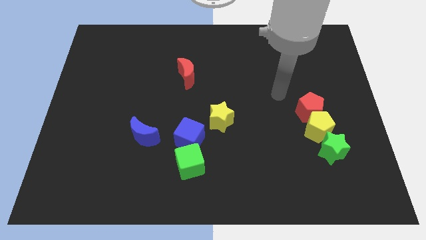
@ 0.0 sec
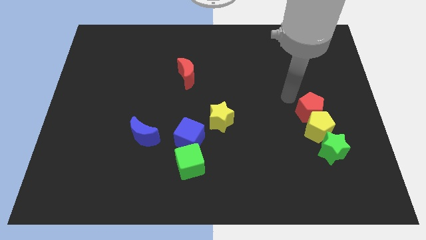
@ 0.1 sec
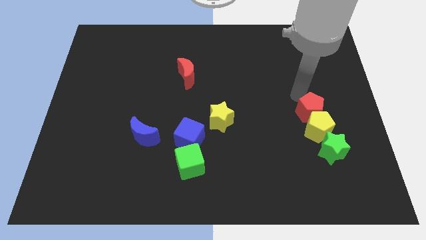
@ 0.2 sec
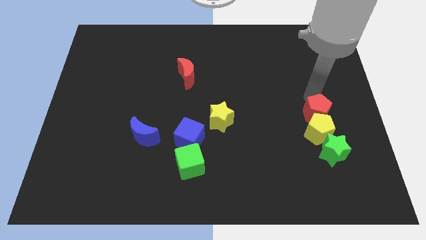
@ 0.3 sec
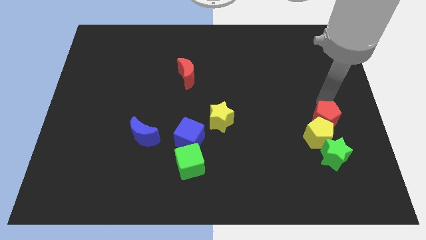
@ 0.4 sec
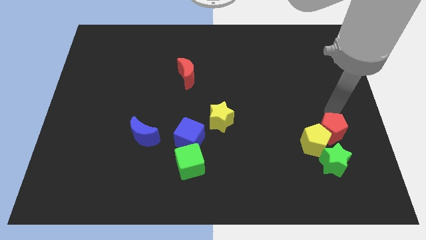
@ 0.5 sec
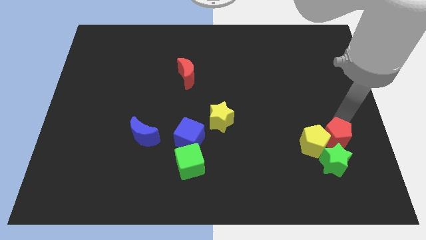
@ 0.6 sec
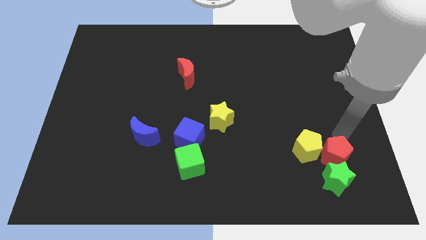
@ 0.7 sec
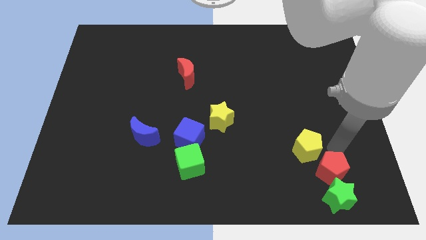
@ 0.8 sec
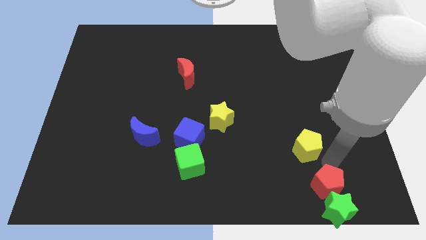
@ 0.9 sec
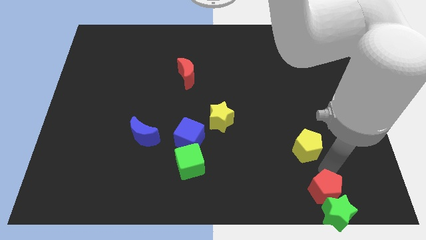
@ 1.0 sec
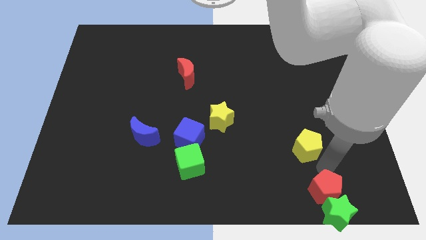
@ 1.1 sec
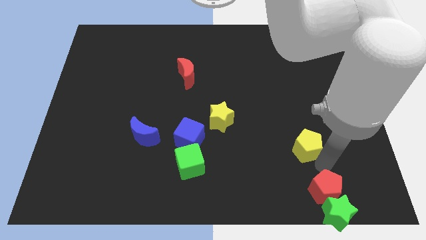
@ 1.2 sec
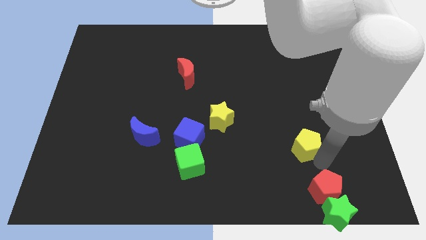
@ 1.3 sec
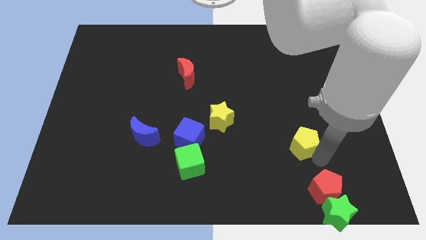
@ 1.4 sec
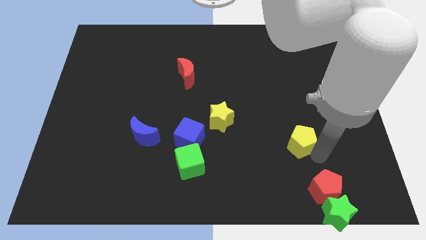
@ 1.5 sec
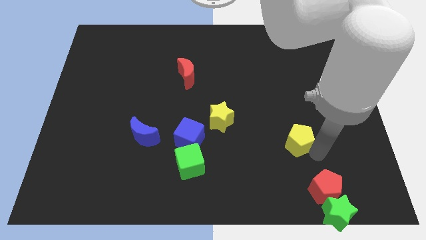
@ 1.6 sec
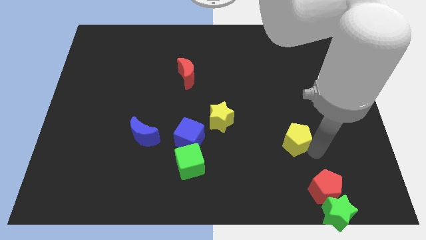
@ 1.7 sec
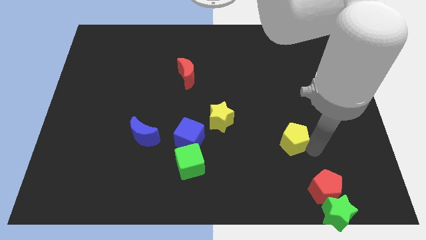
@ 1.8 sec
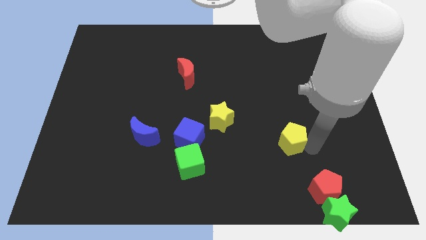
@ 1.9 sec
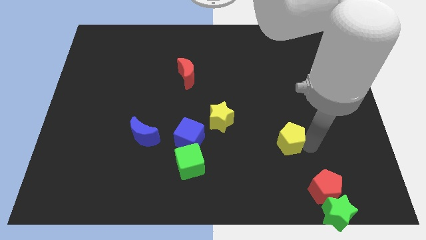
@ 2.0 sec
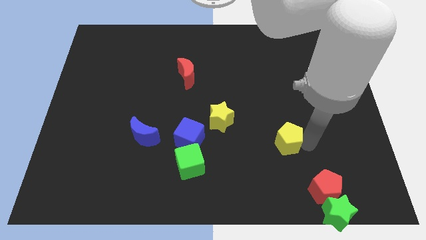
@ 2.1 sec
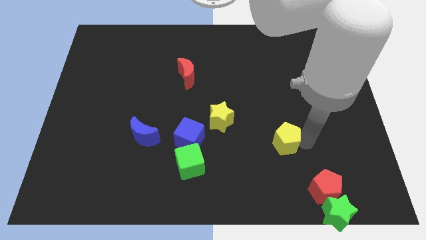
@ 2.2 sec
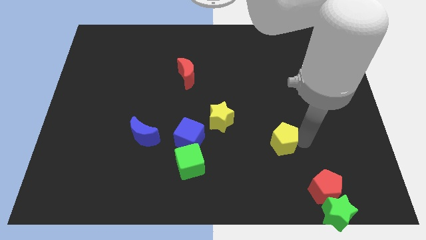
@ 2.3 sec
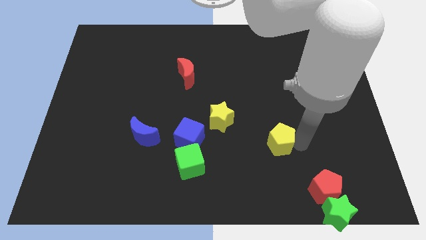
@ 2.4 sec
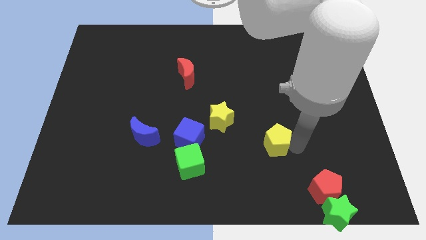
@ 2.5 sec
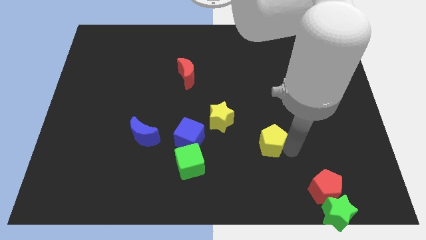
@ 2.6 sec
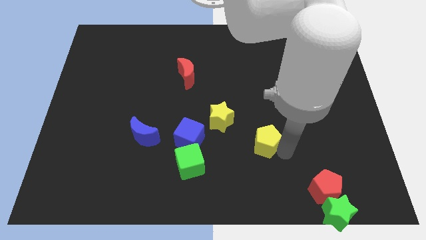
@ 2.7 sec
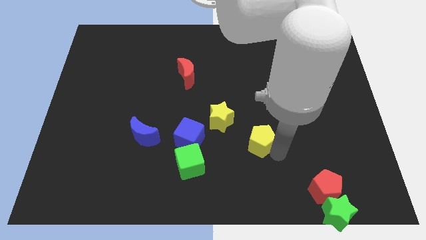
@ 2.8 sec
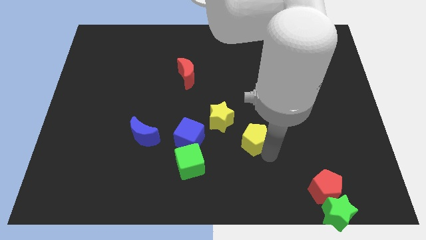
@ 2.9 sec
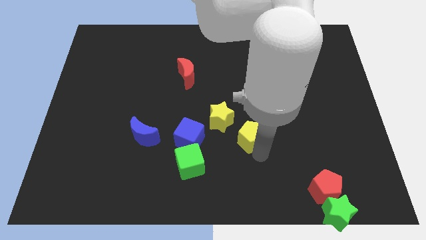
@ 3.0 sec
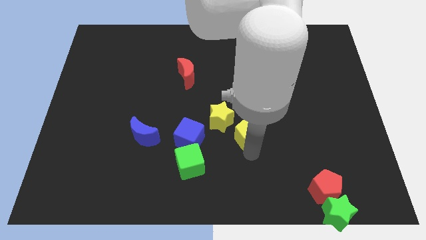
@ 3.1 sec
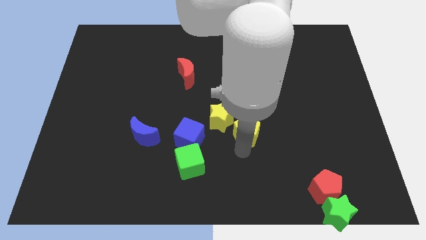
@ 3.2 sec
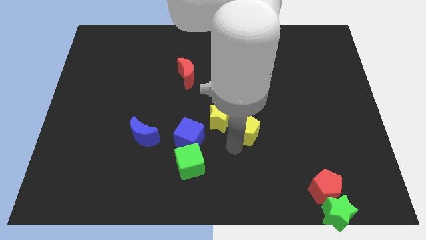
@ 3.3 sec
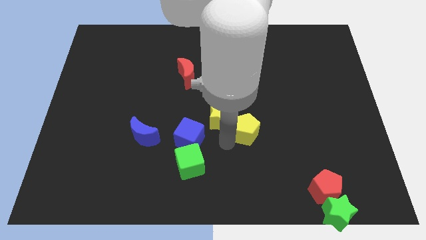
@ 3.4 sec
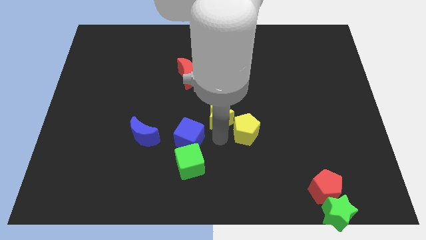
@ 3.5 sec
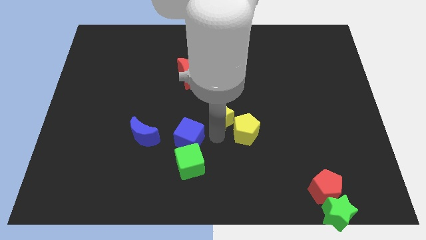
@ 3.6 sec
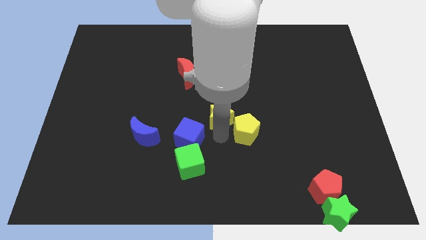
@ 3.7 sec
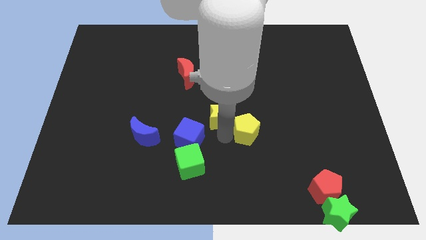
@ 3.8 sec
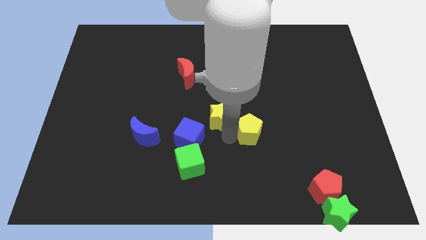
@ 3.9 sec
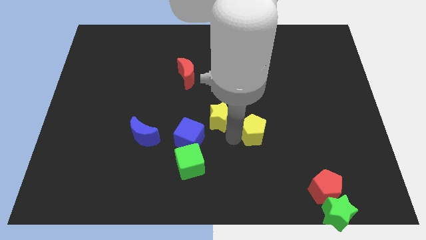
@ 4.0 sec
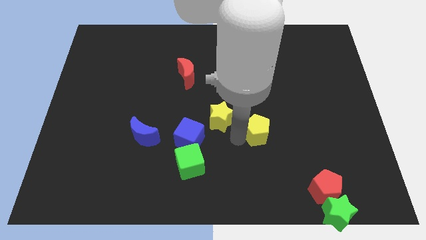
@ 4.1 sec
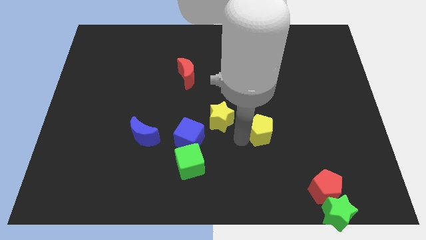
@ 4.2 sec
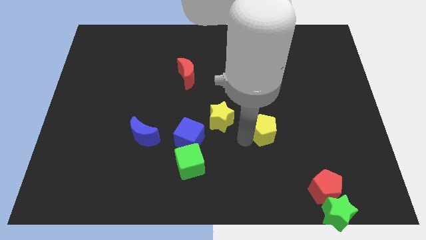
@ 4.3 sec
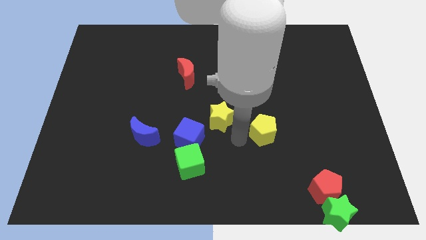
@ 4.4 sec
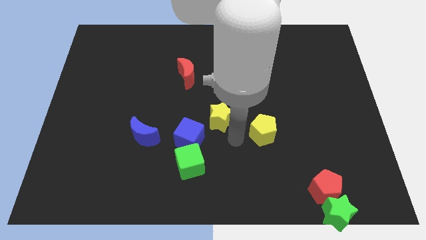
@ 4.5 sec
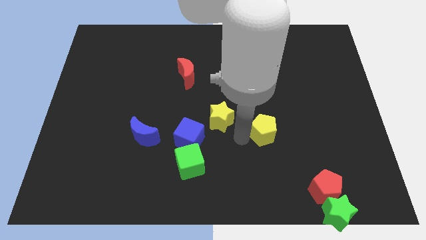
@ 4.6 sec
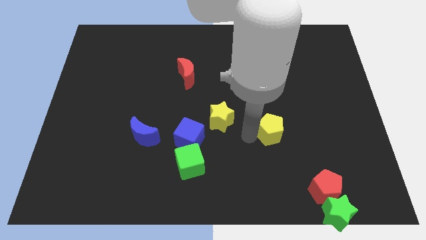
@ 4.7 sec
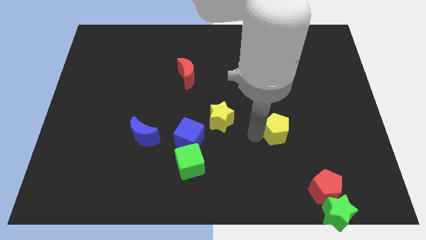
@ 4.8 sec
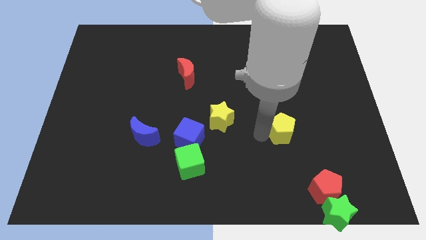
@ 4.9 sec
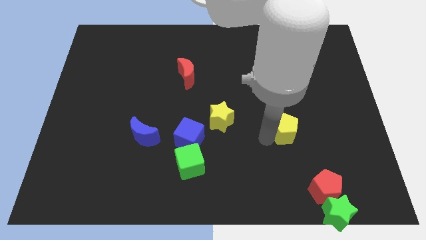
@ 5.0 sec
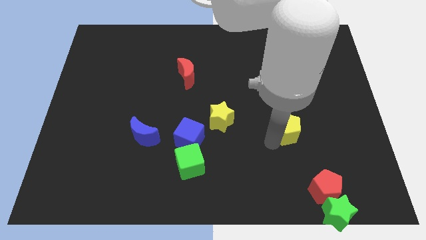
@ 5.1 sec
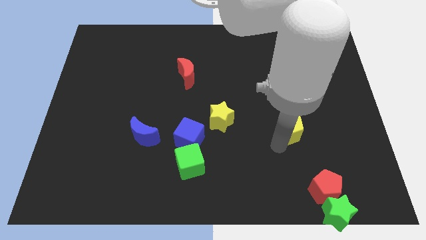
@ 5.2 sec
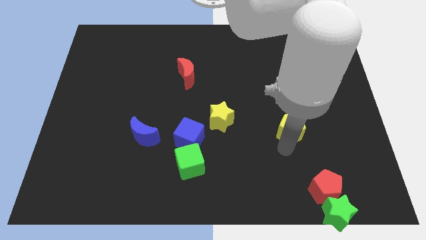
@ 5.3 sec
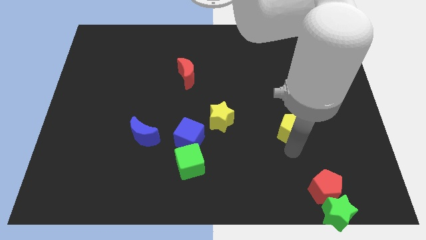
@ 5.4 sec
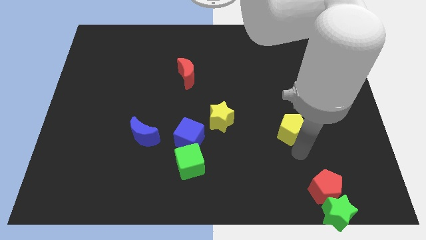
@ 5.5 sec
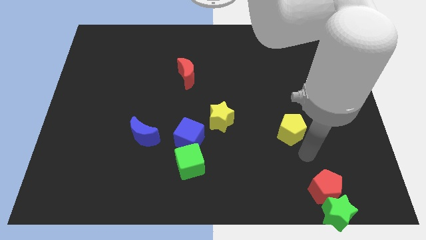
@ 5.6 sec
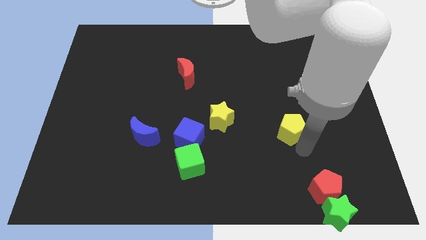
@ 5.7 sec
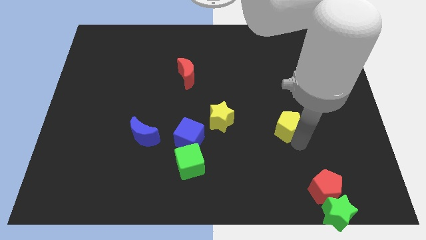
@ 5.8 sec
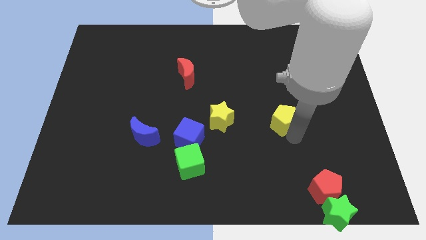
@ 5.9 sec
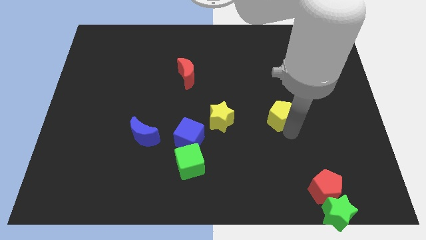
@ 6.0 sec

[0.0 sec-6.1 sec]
push the yellow pentagon slightly up and left

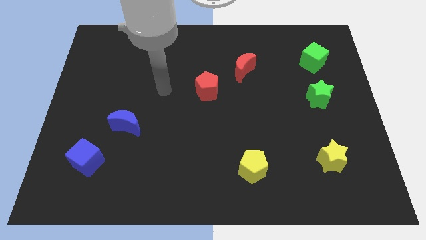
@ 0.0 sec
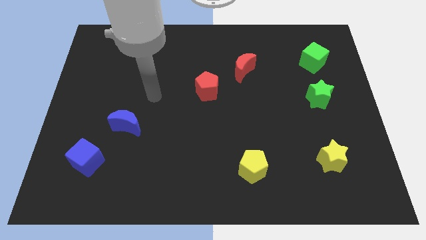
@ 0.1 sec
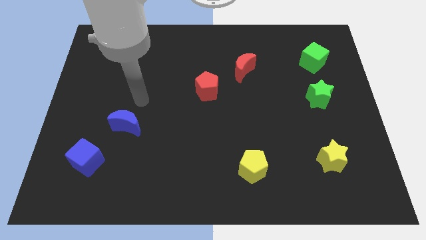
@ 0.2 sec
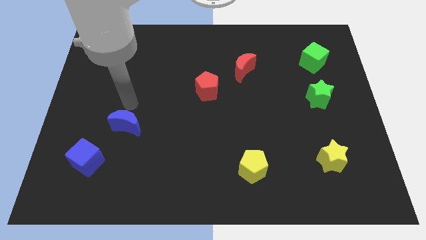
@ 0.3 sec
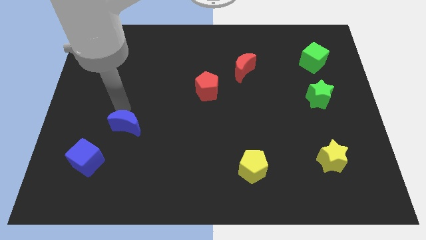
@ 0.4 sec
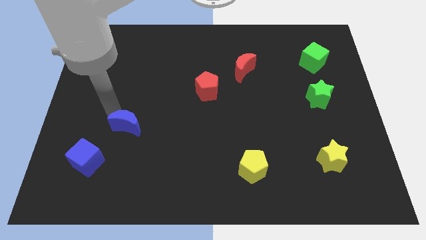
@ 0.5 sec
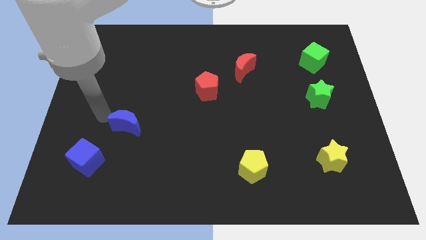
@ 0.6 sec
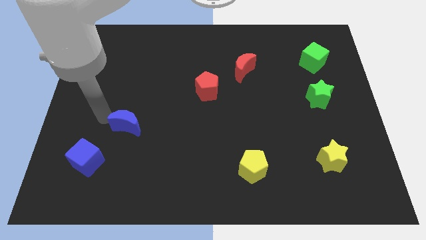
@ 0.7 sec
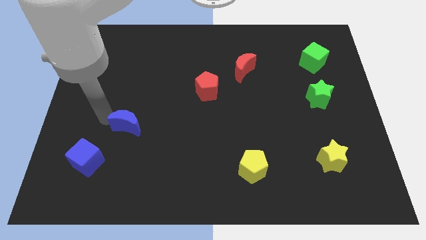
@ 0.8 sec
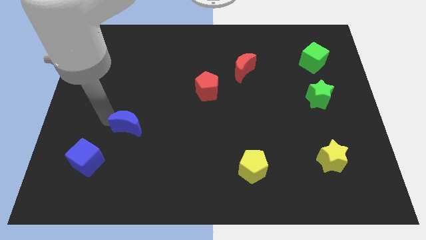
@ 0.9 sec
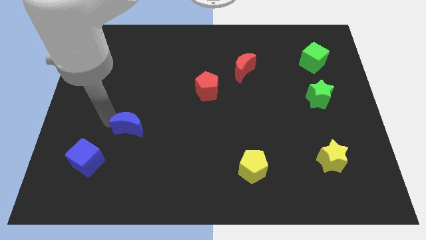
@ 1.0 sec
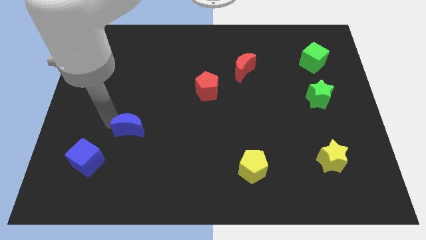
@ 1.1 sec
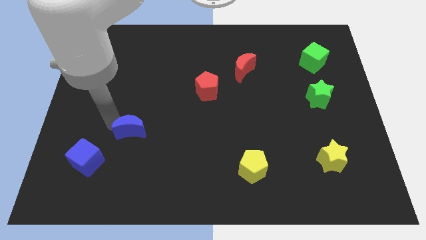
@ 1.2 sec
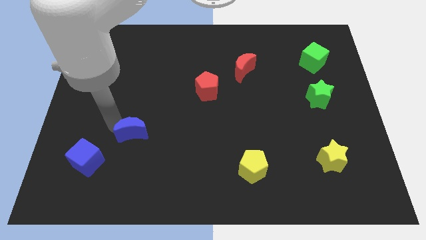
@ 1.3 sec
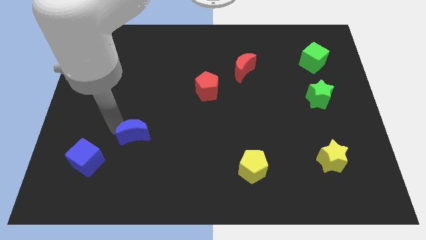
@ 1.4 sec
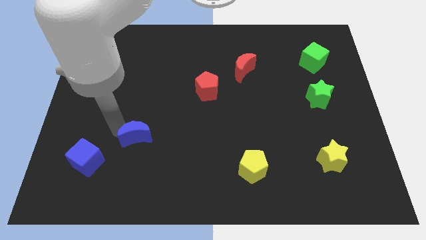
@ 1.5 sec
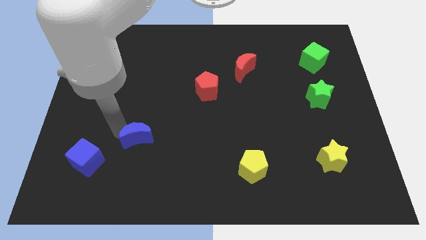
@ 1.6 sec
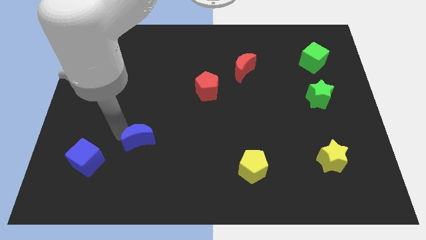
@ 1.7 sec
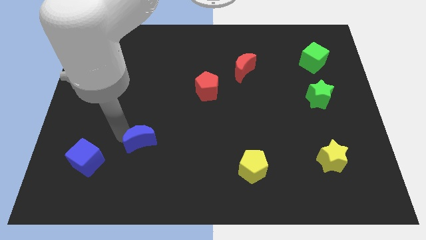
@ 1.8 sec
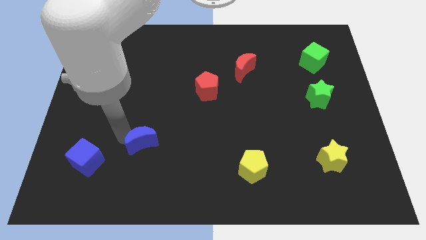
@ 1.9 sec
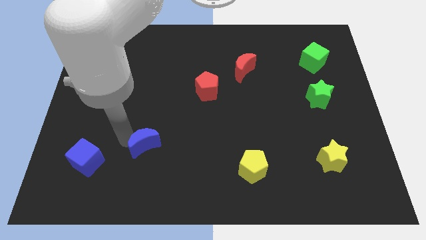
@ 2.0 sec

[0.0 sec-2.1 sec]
push the blue moon down and to the right a little bit

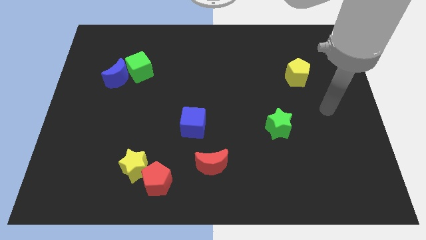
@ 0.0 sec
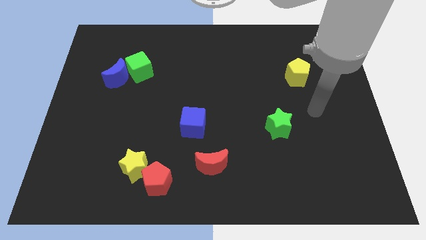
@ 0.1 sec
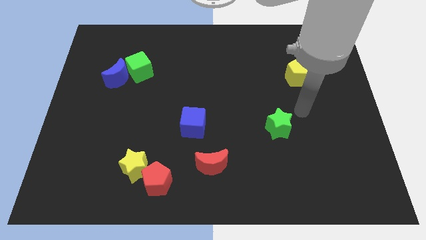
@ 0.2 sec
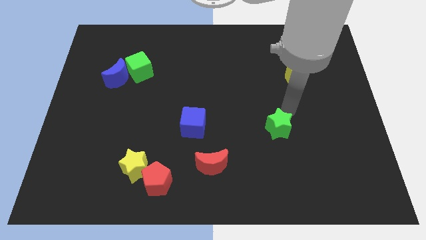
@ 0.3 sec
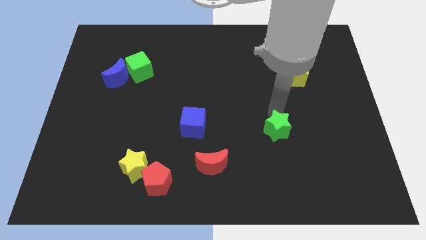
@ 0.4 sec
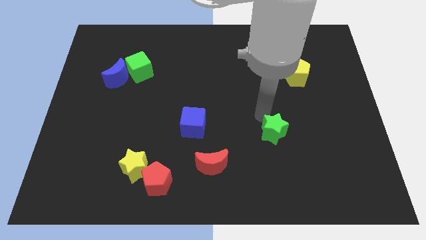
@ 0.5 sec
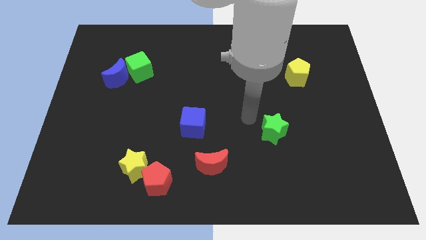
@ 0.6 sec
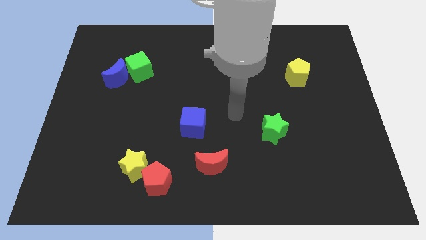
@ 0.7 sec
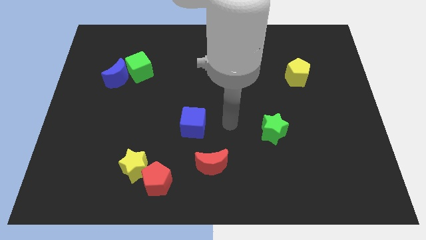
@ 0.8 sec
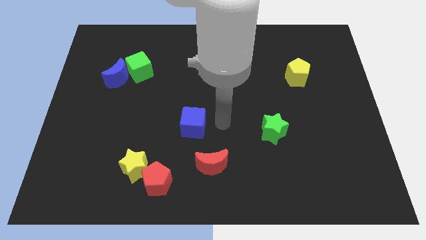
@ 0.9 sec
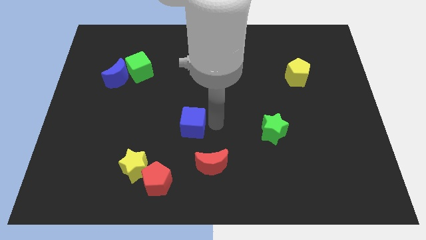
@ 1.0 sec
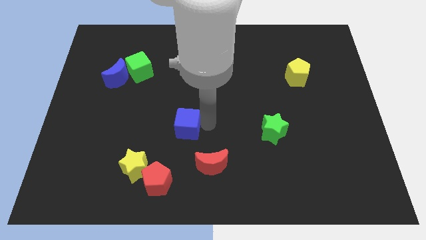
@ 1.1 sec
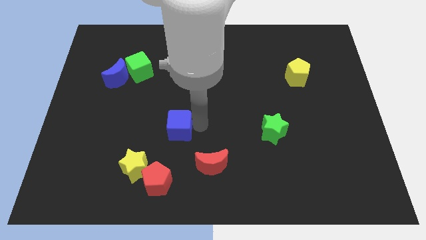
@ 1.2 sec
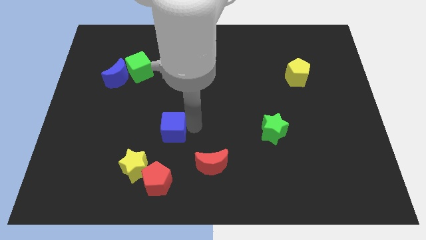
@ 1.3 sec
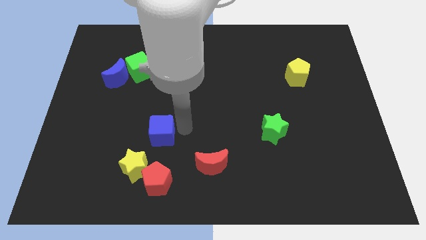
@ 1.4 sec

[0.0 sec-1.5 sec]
slightly push the blue cube to the left
